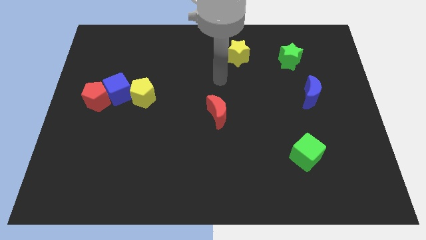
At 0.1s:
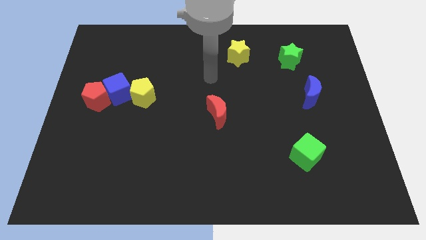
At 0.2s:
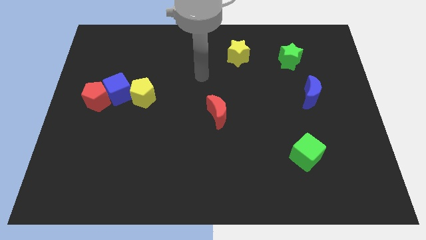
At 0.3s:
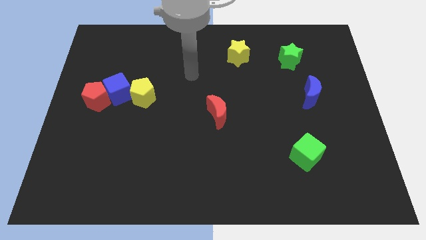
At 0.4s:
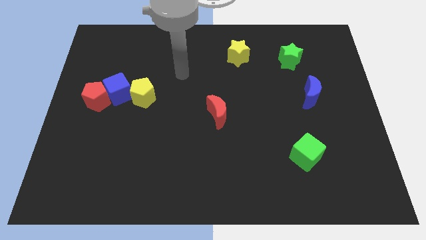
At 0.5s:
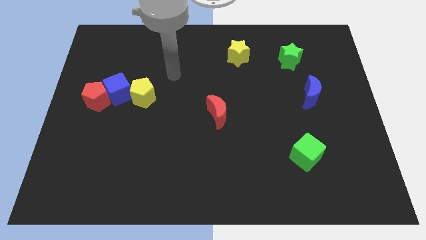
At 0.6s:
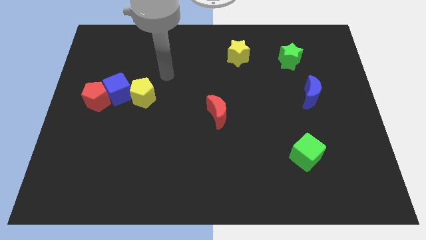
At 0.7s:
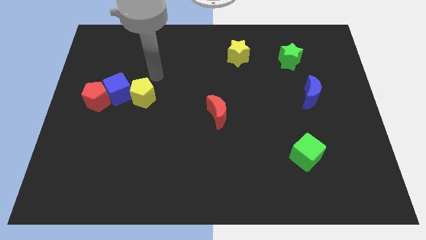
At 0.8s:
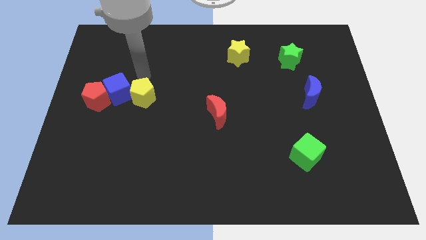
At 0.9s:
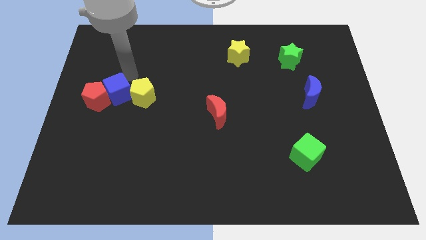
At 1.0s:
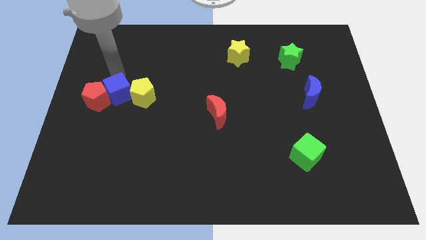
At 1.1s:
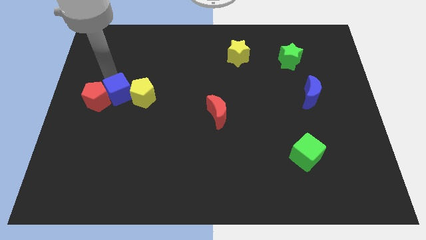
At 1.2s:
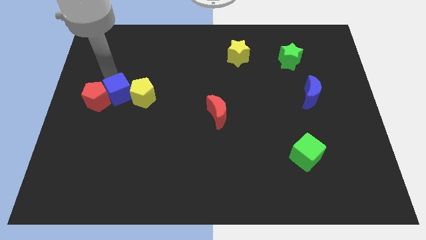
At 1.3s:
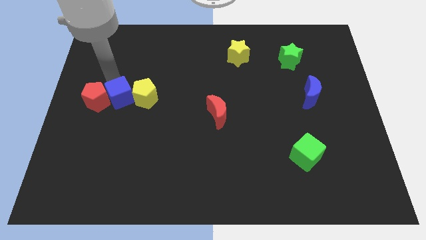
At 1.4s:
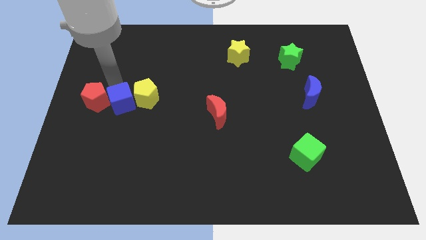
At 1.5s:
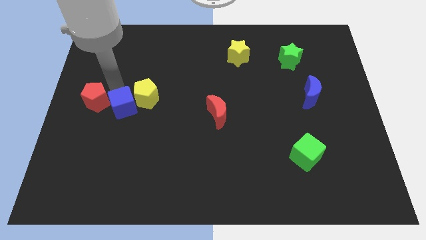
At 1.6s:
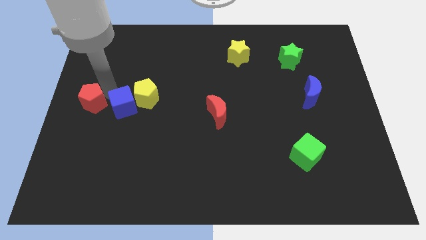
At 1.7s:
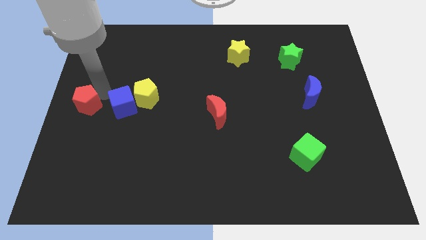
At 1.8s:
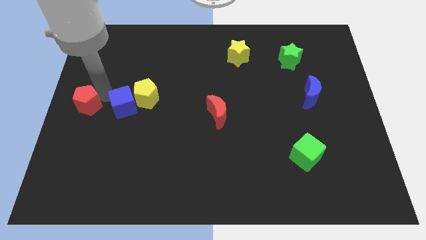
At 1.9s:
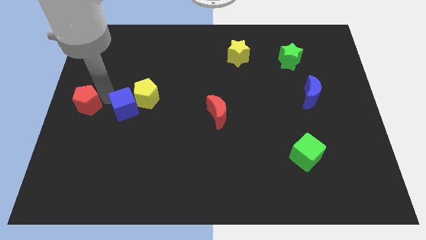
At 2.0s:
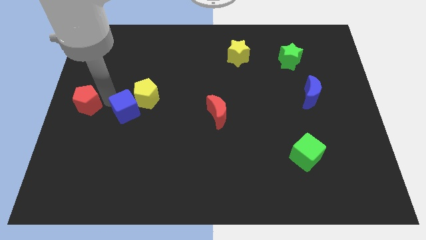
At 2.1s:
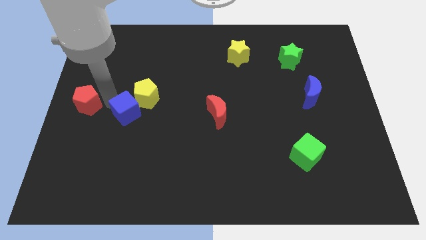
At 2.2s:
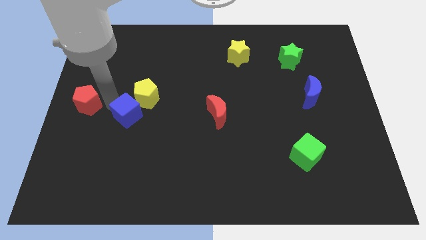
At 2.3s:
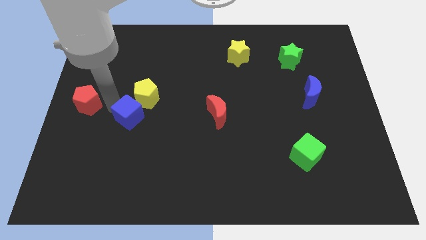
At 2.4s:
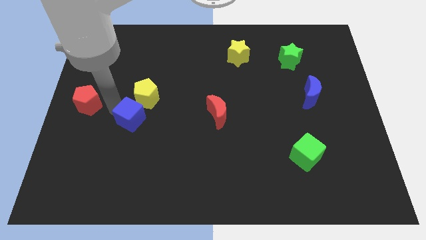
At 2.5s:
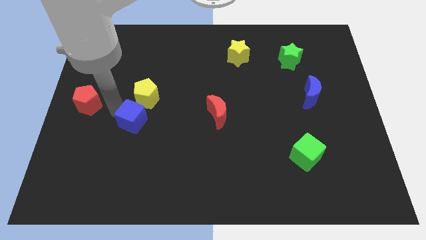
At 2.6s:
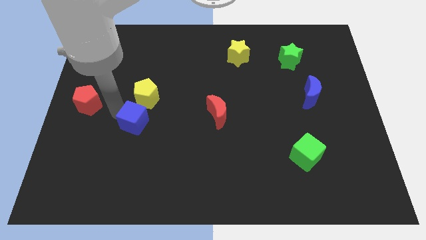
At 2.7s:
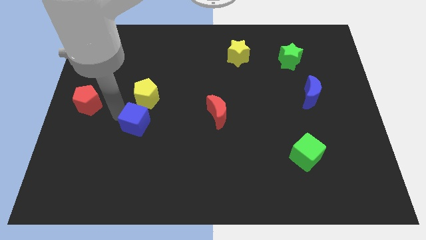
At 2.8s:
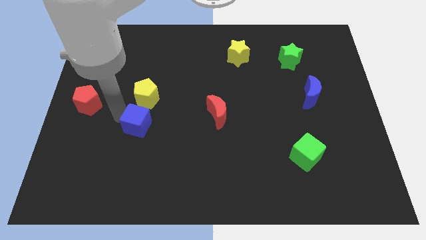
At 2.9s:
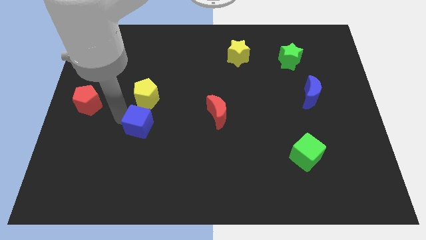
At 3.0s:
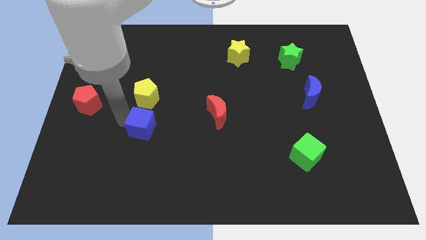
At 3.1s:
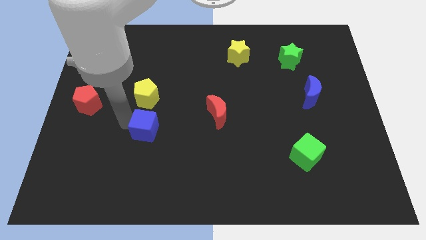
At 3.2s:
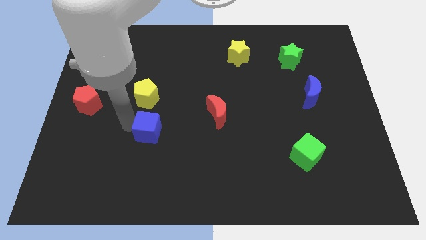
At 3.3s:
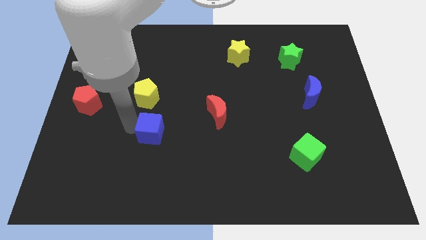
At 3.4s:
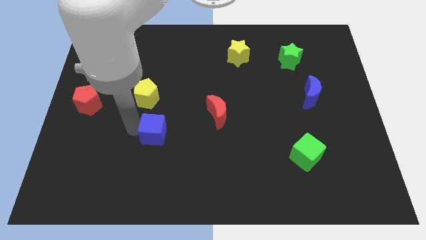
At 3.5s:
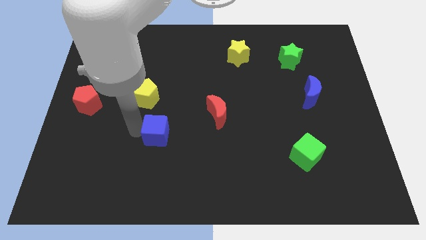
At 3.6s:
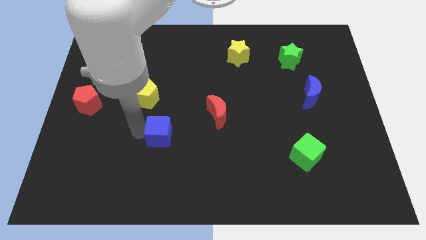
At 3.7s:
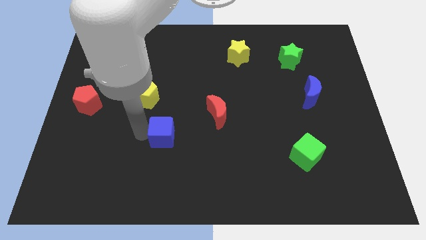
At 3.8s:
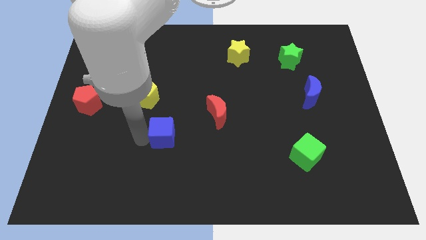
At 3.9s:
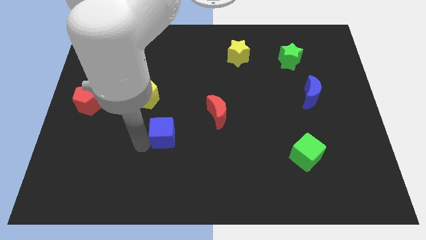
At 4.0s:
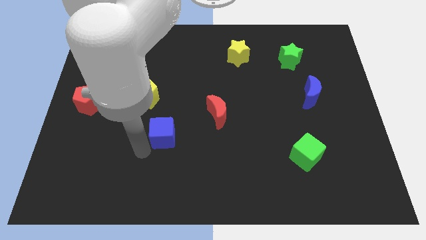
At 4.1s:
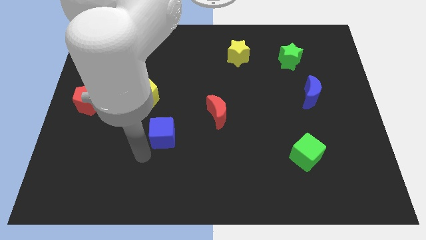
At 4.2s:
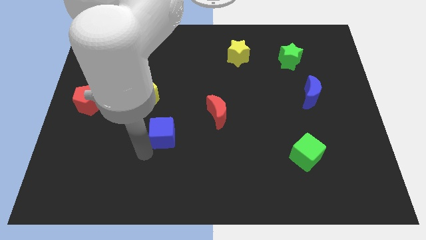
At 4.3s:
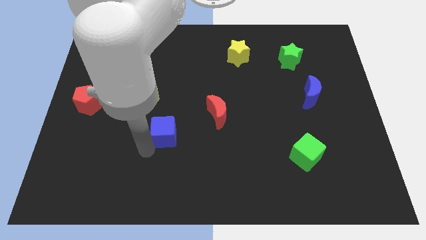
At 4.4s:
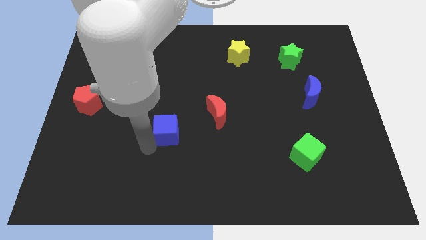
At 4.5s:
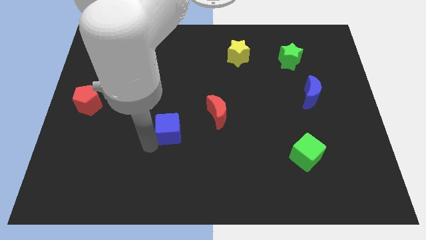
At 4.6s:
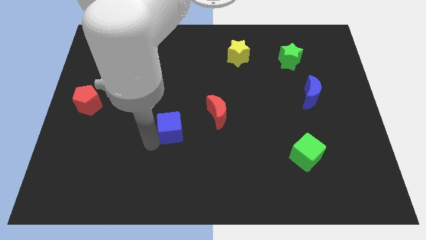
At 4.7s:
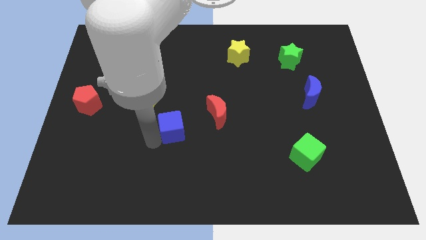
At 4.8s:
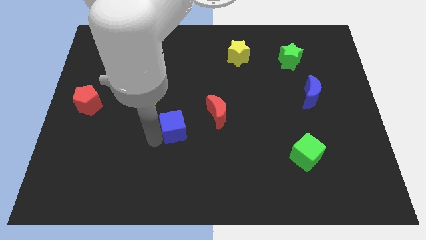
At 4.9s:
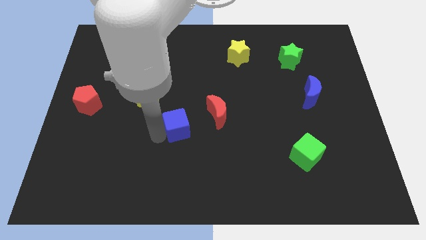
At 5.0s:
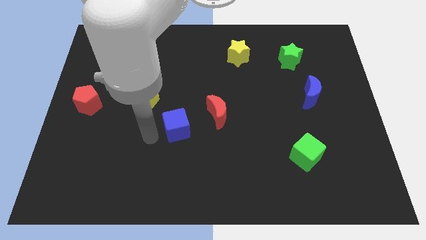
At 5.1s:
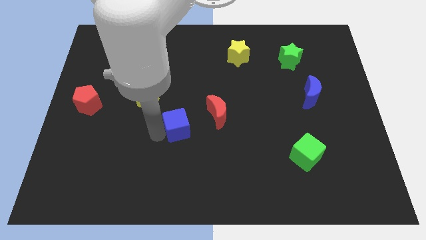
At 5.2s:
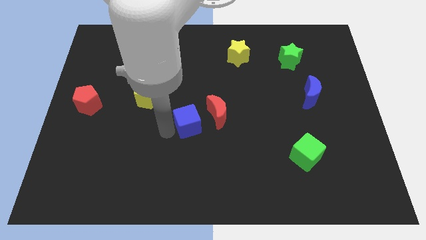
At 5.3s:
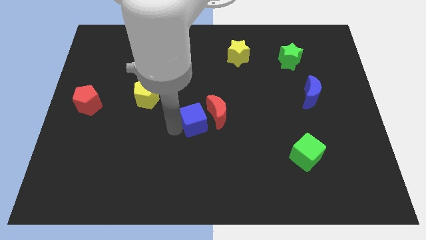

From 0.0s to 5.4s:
push the blue cube towards the red moon

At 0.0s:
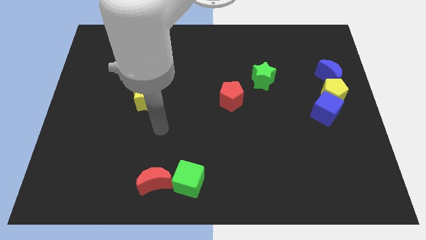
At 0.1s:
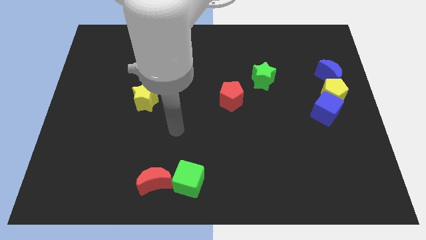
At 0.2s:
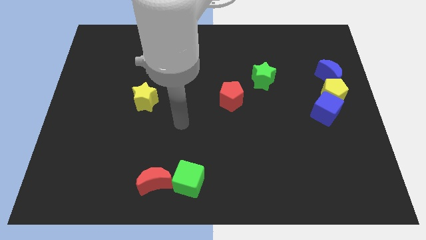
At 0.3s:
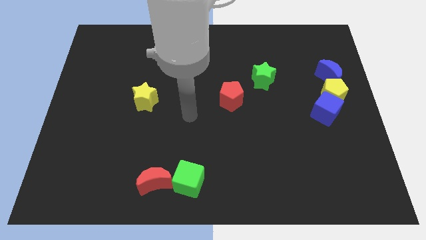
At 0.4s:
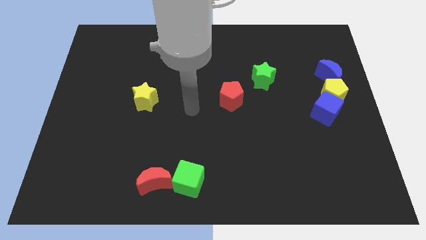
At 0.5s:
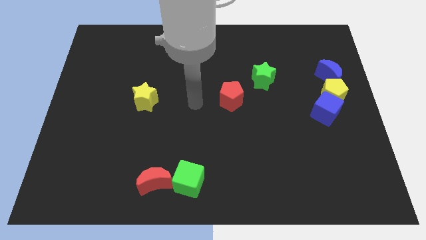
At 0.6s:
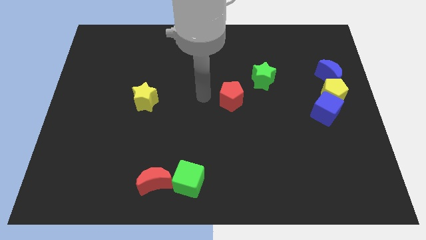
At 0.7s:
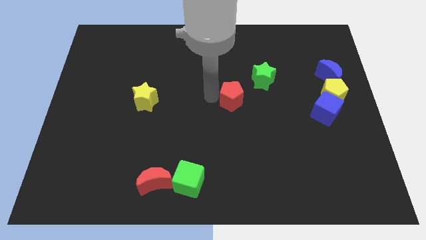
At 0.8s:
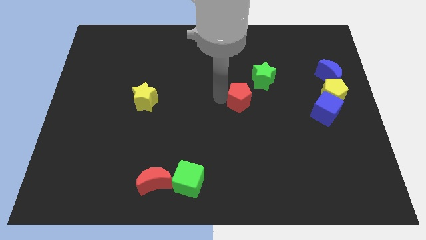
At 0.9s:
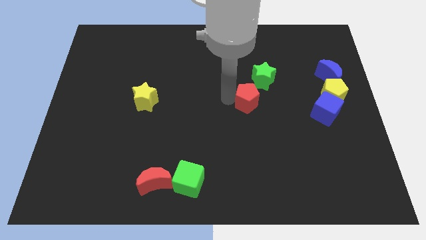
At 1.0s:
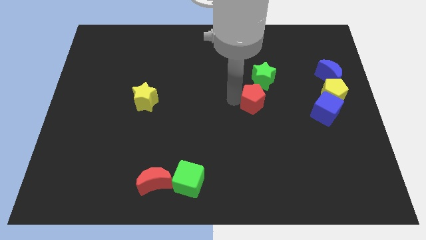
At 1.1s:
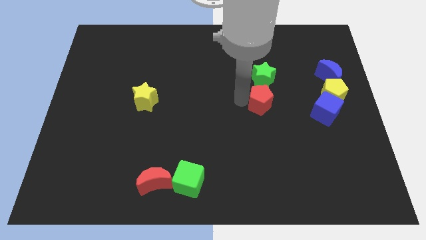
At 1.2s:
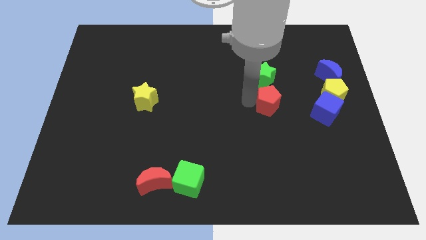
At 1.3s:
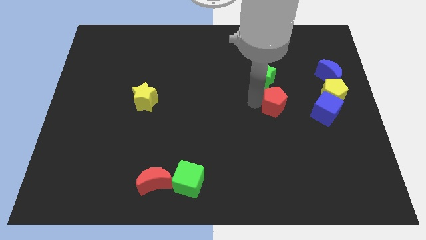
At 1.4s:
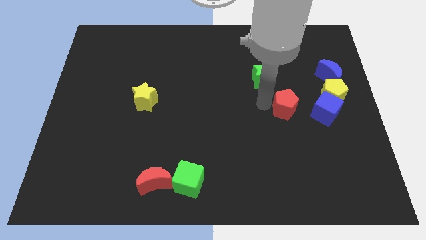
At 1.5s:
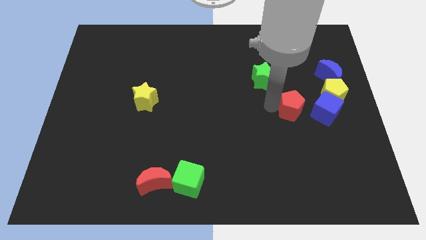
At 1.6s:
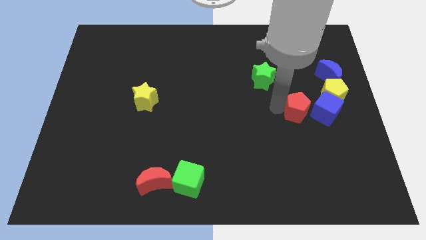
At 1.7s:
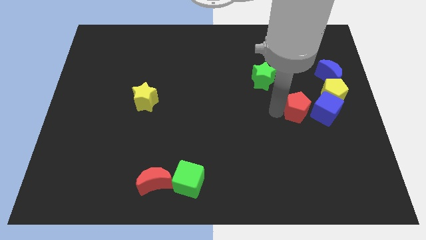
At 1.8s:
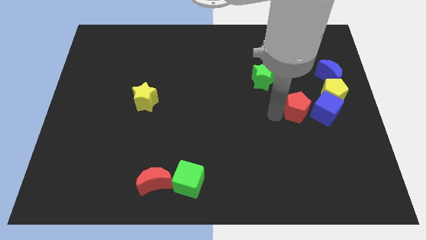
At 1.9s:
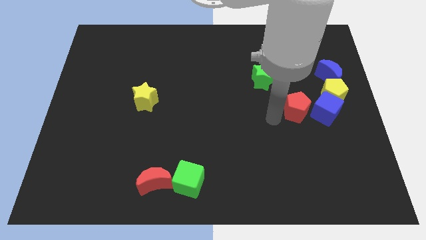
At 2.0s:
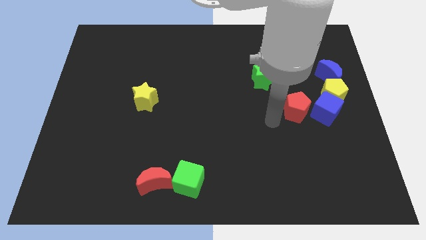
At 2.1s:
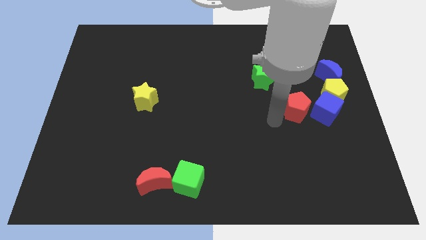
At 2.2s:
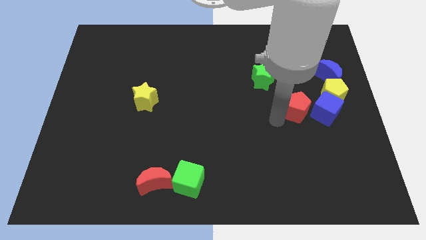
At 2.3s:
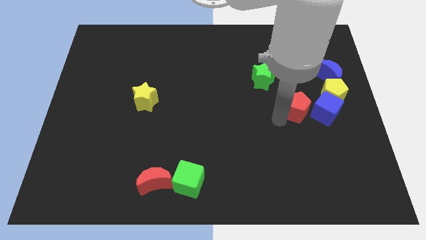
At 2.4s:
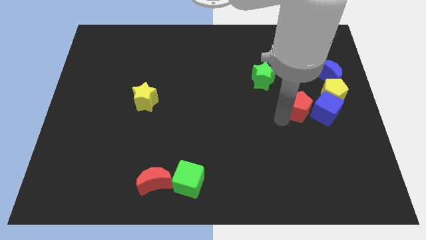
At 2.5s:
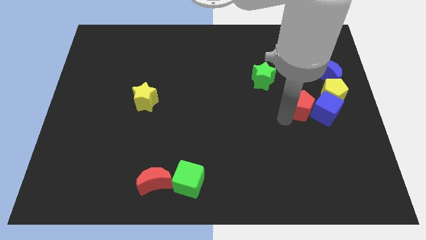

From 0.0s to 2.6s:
move the red pentagon towards the blue cube
